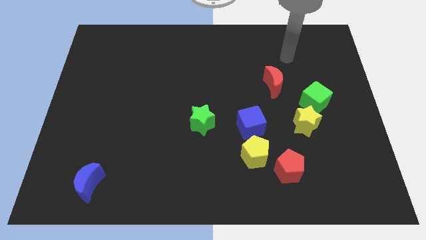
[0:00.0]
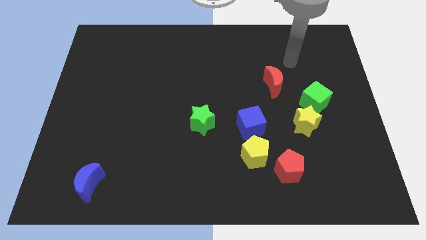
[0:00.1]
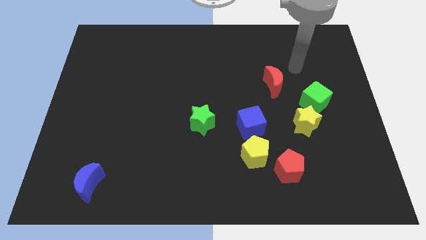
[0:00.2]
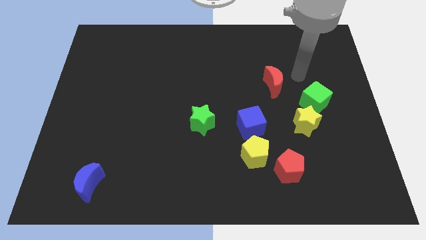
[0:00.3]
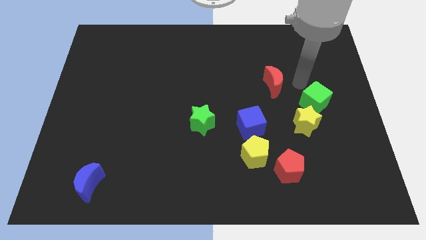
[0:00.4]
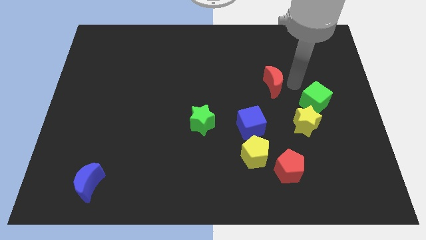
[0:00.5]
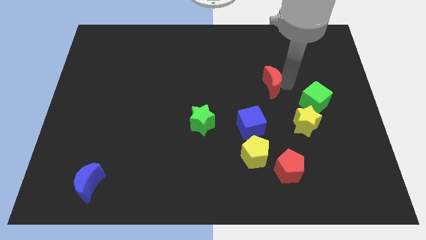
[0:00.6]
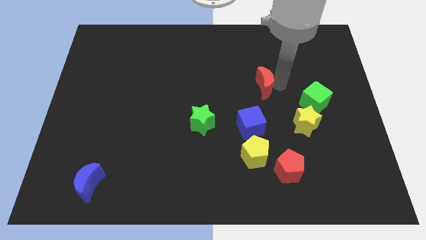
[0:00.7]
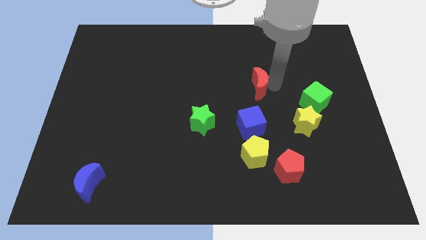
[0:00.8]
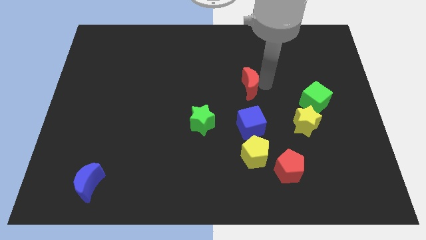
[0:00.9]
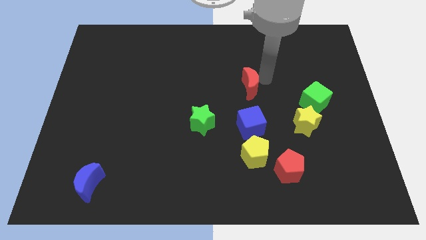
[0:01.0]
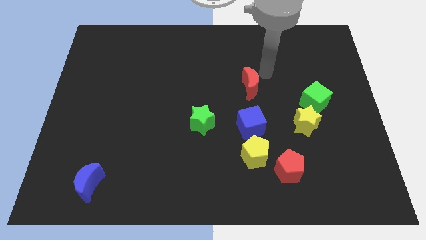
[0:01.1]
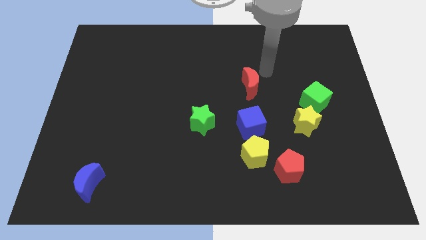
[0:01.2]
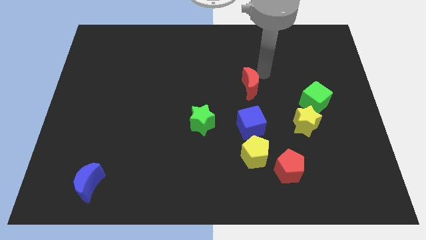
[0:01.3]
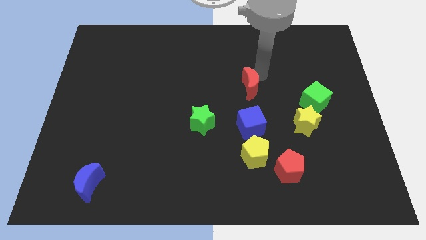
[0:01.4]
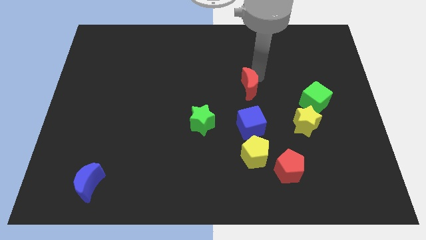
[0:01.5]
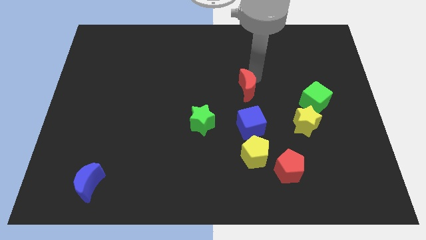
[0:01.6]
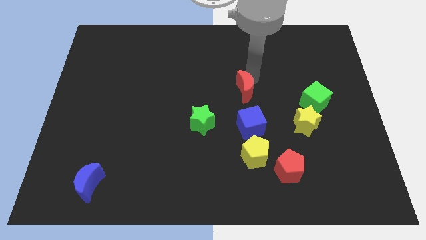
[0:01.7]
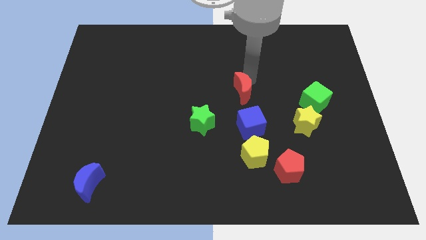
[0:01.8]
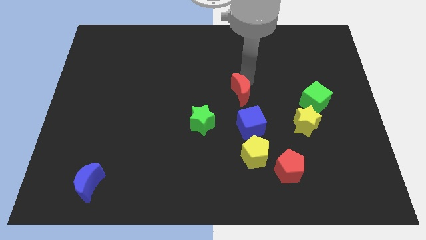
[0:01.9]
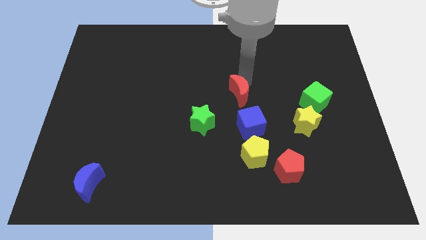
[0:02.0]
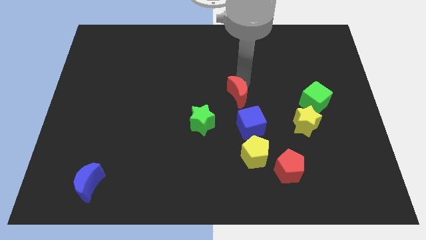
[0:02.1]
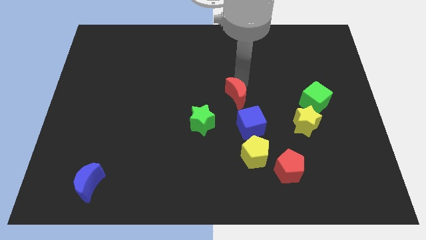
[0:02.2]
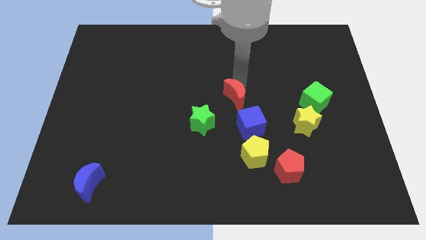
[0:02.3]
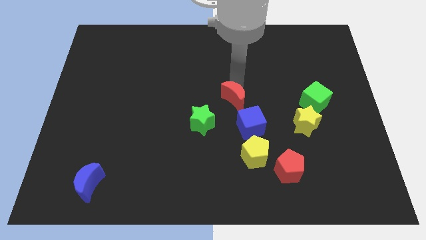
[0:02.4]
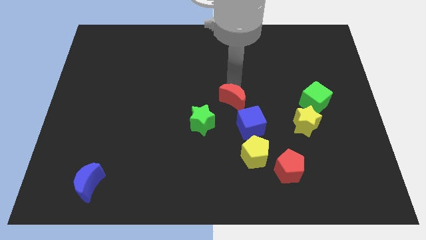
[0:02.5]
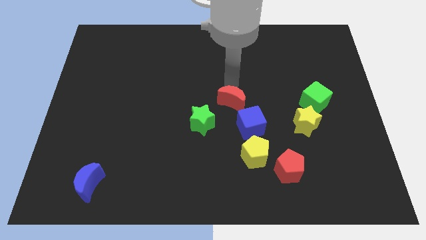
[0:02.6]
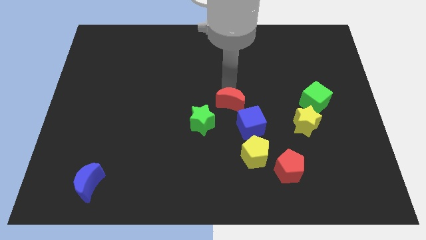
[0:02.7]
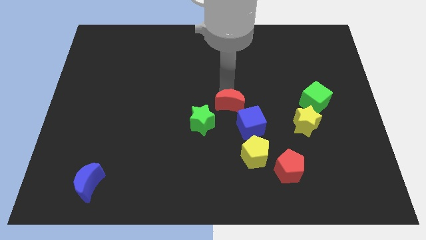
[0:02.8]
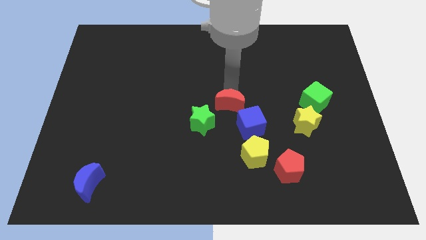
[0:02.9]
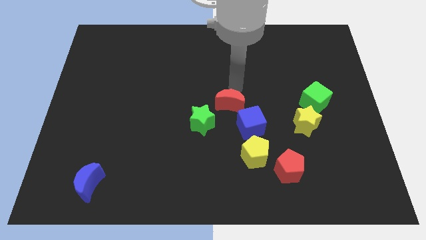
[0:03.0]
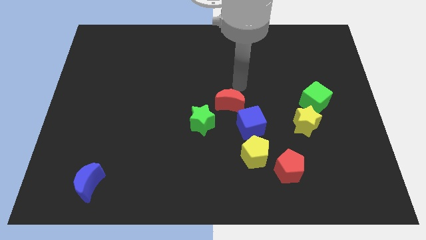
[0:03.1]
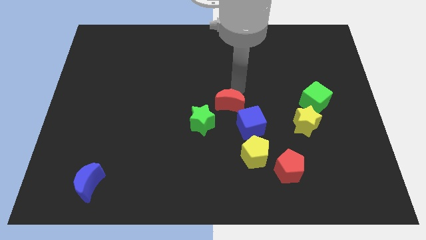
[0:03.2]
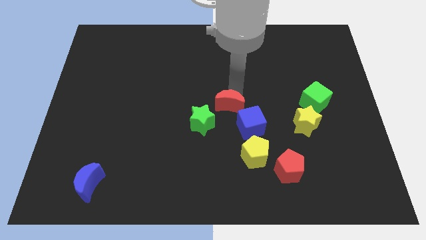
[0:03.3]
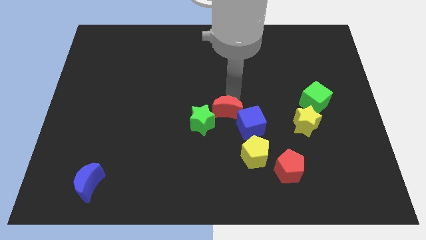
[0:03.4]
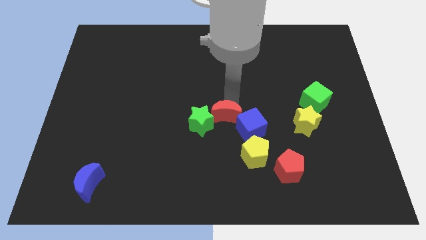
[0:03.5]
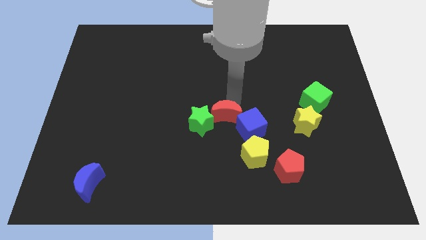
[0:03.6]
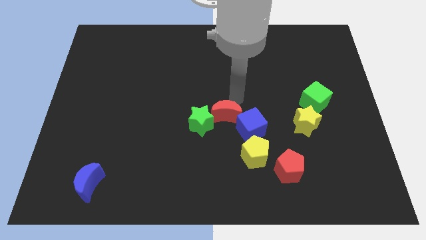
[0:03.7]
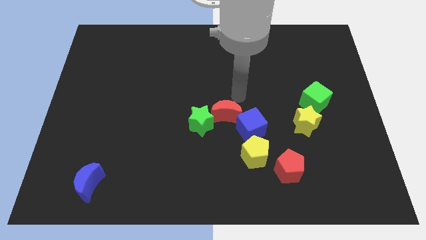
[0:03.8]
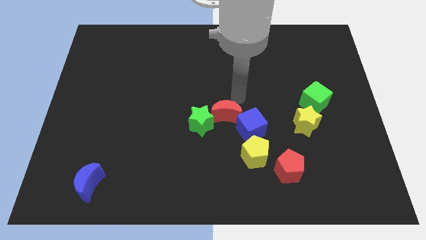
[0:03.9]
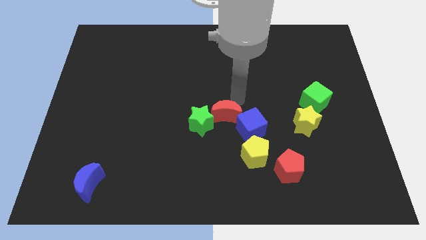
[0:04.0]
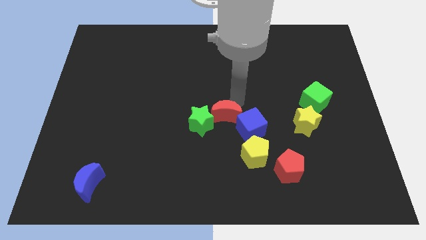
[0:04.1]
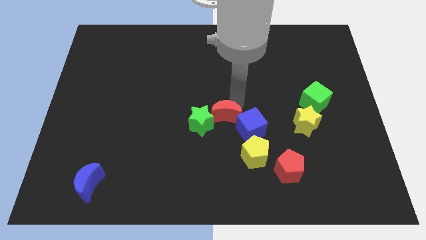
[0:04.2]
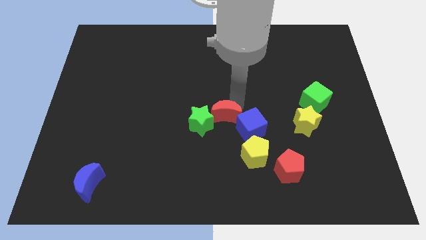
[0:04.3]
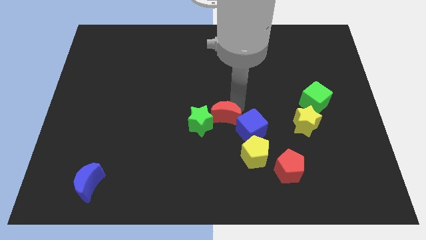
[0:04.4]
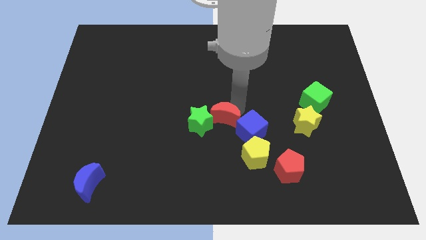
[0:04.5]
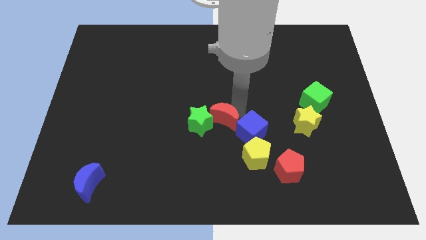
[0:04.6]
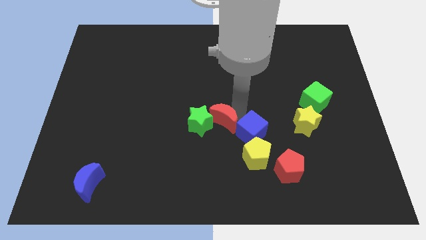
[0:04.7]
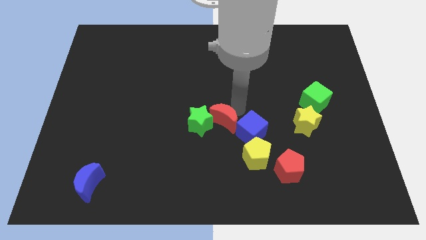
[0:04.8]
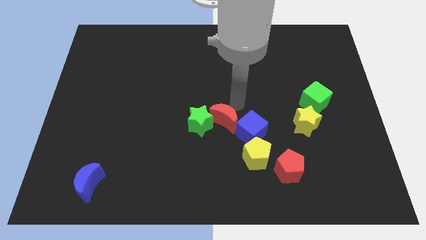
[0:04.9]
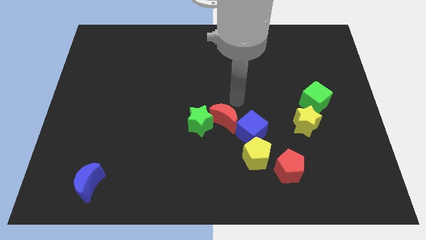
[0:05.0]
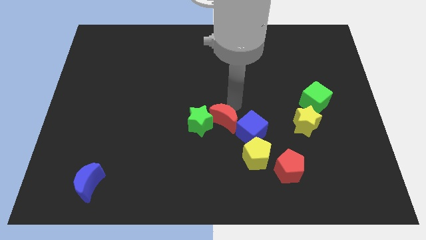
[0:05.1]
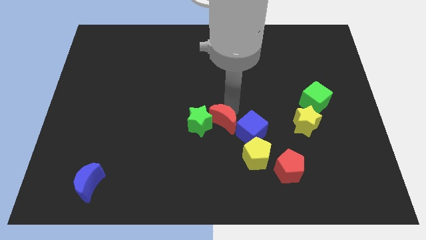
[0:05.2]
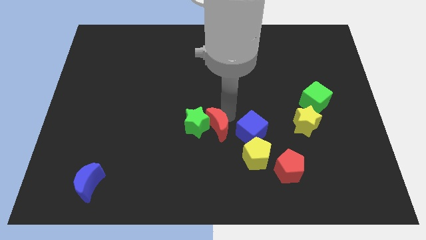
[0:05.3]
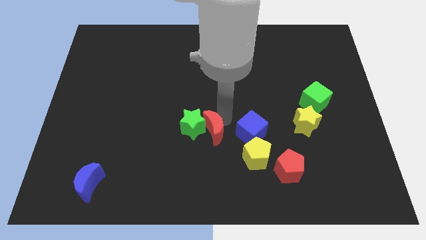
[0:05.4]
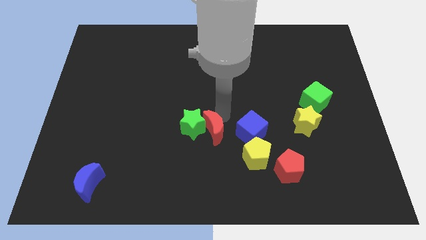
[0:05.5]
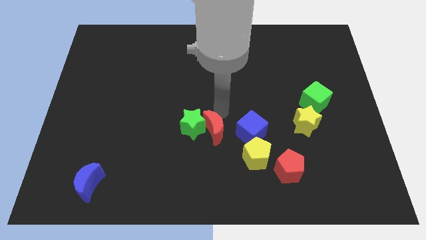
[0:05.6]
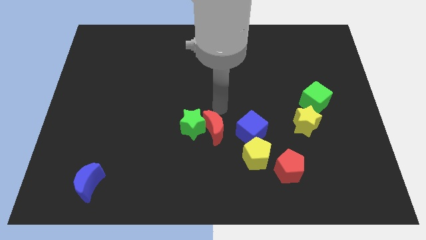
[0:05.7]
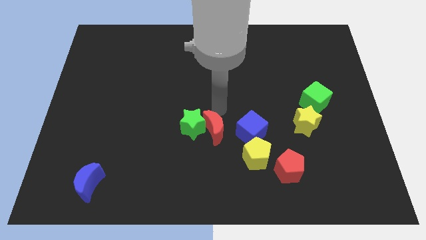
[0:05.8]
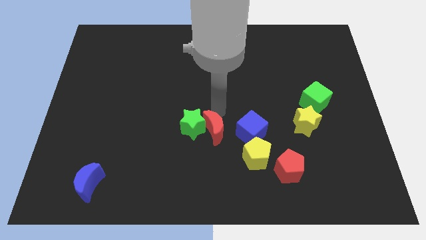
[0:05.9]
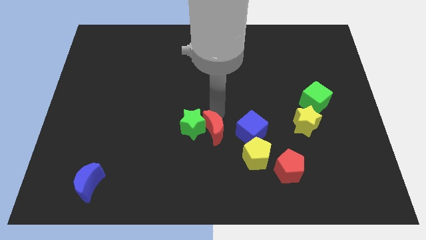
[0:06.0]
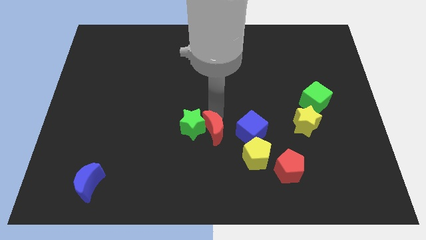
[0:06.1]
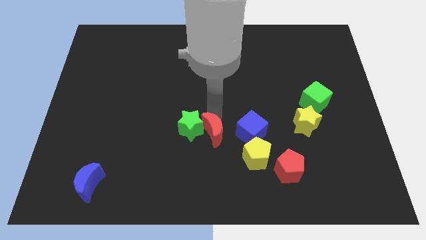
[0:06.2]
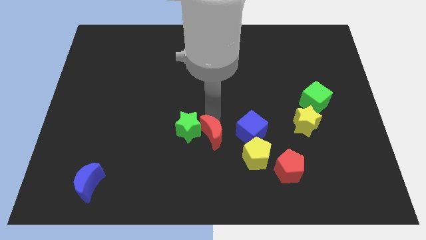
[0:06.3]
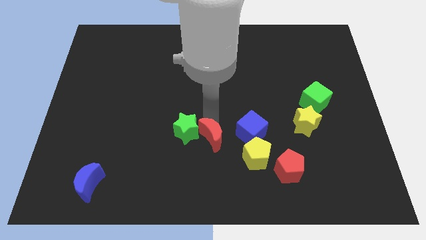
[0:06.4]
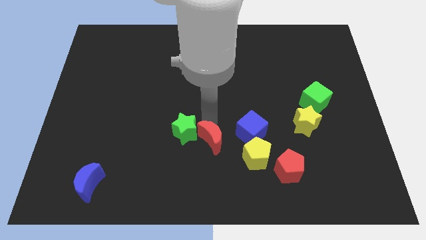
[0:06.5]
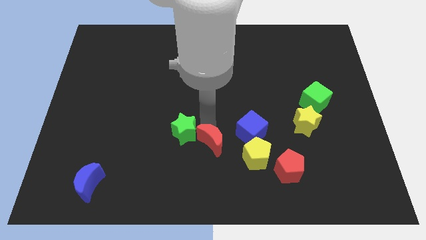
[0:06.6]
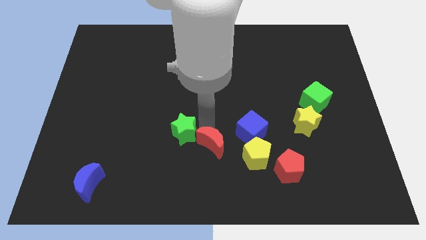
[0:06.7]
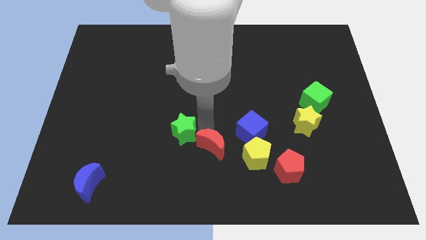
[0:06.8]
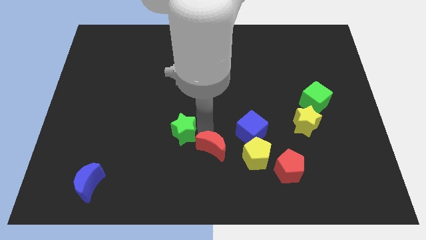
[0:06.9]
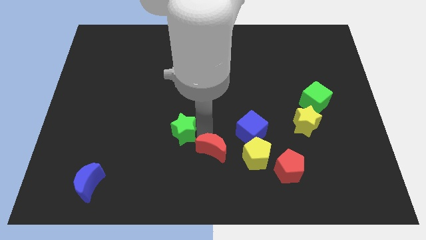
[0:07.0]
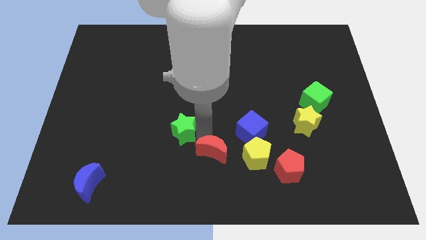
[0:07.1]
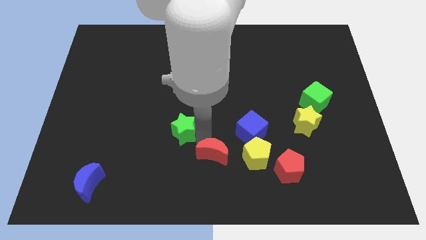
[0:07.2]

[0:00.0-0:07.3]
move the red moon to the bottom side
